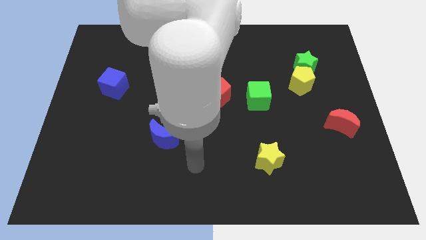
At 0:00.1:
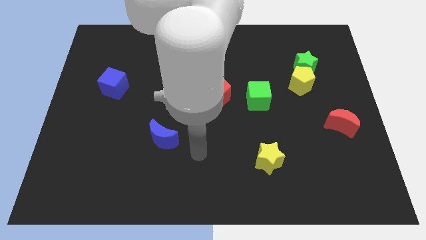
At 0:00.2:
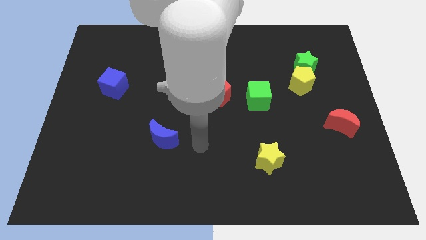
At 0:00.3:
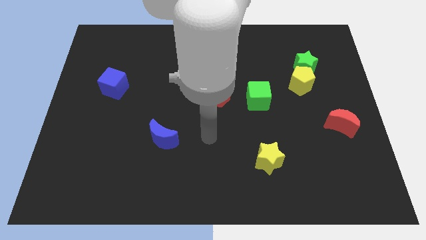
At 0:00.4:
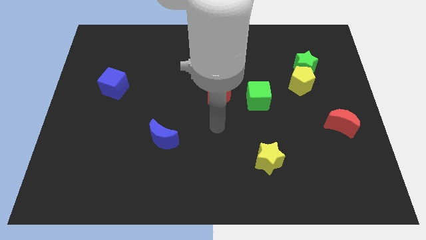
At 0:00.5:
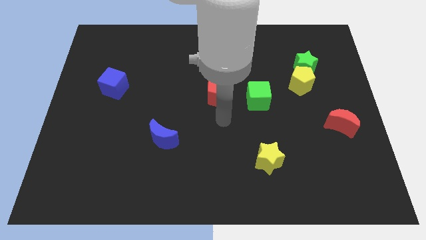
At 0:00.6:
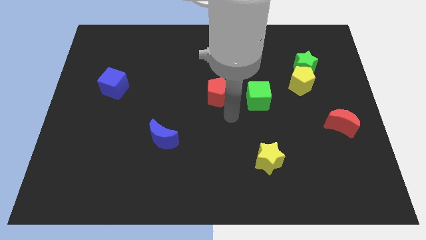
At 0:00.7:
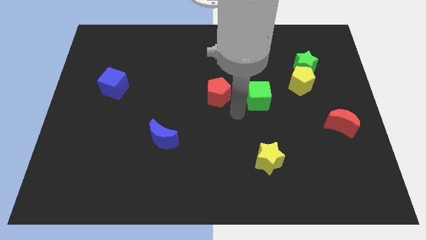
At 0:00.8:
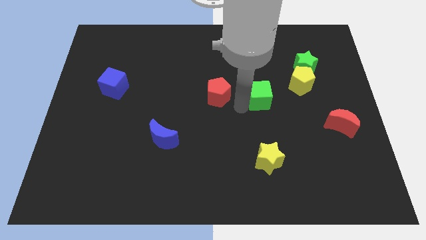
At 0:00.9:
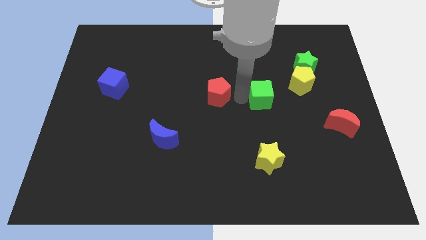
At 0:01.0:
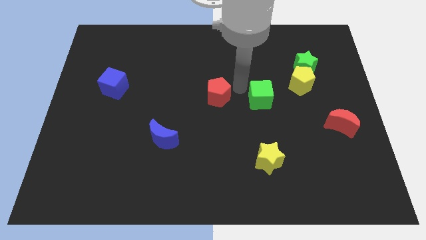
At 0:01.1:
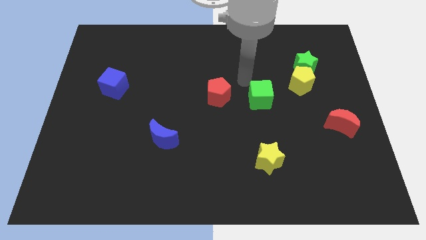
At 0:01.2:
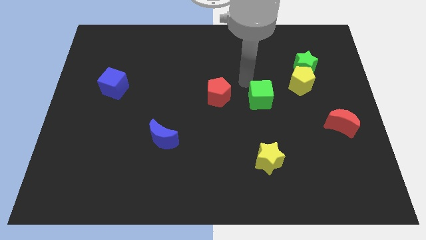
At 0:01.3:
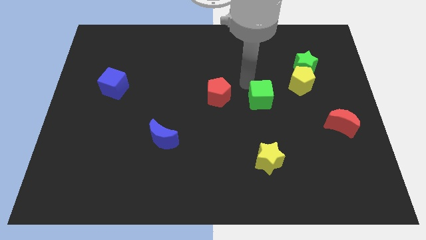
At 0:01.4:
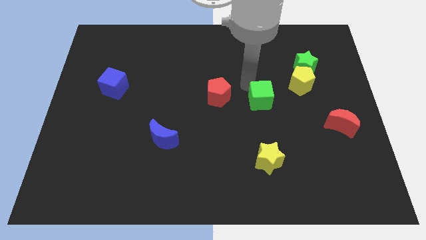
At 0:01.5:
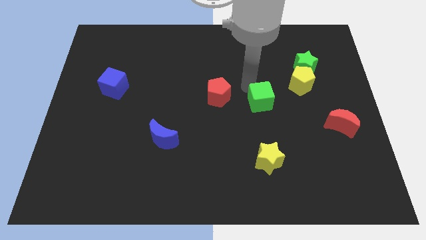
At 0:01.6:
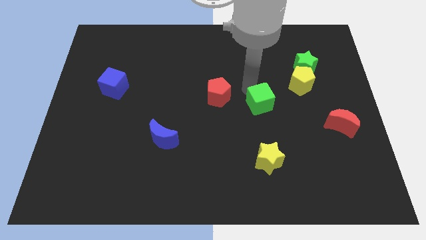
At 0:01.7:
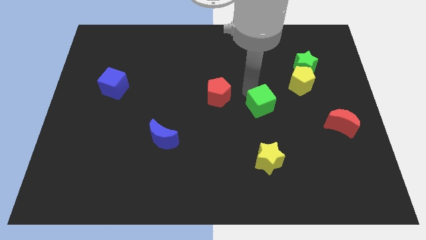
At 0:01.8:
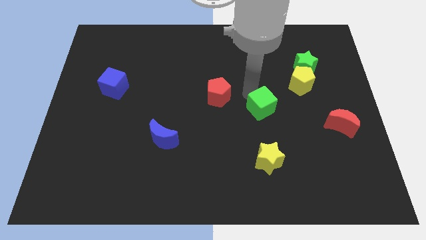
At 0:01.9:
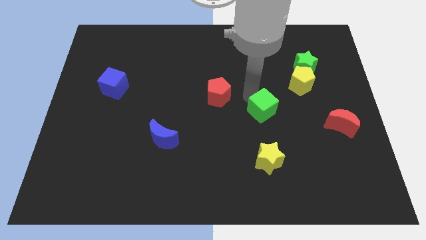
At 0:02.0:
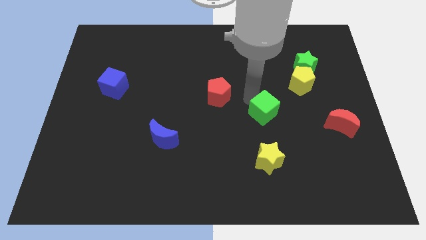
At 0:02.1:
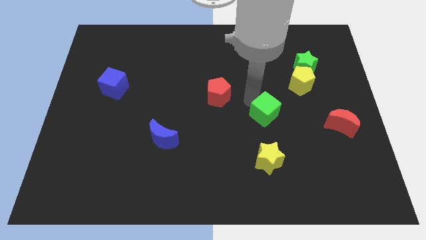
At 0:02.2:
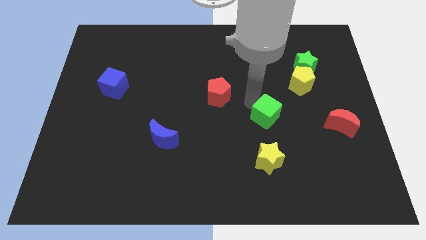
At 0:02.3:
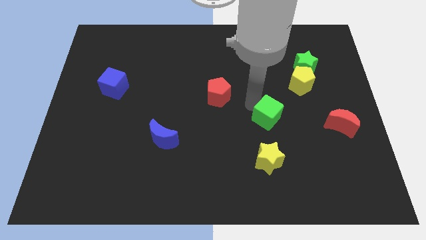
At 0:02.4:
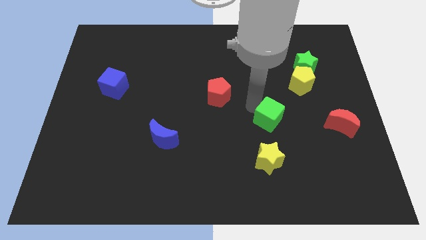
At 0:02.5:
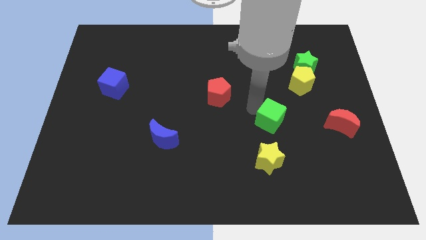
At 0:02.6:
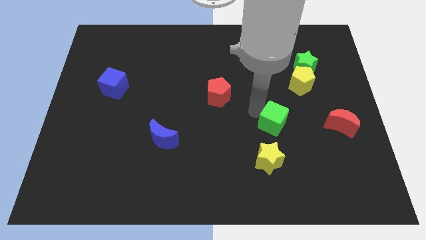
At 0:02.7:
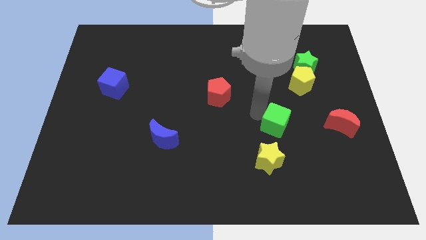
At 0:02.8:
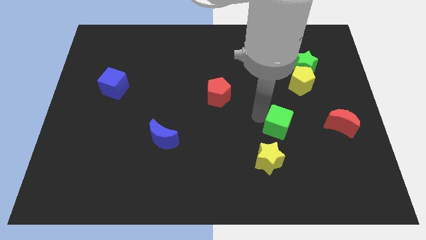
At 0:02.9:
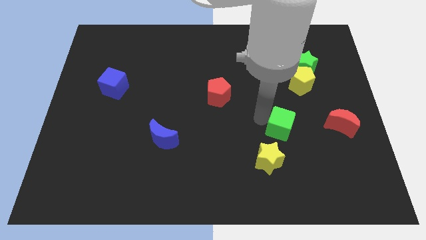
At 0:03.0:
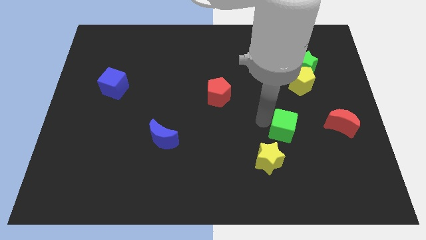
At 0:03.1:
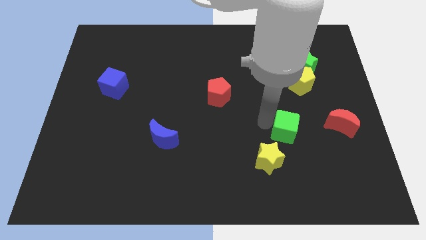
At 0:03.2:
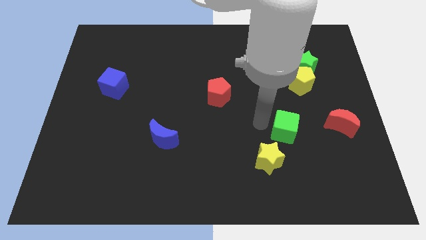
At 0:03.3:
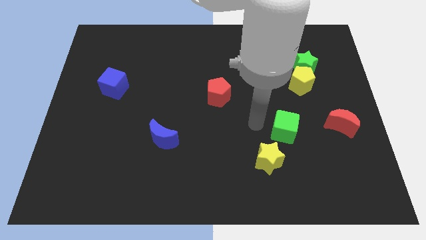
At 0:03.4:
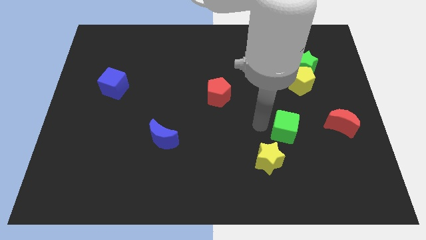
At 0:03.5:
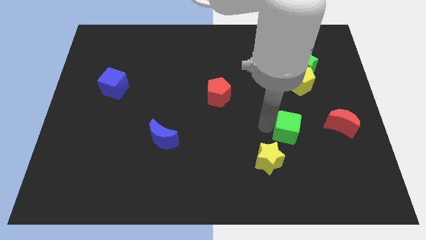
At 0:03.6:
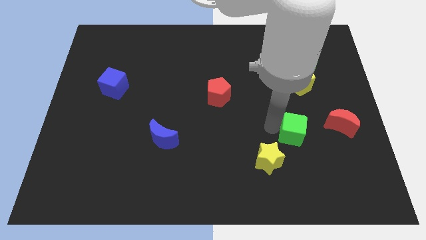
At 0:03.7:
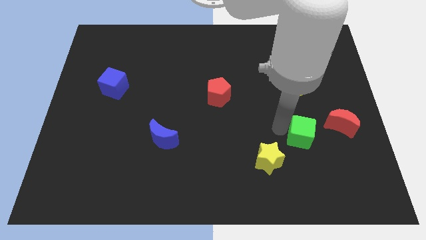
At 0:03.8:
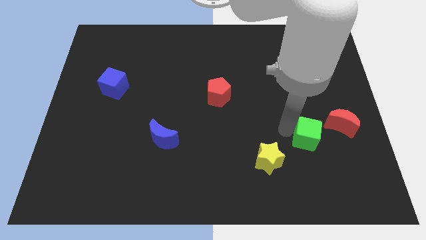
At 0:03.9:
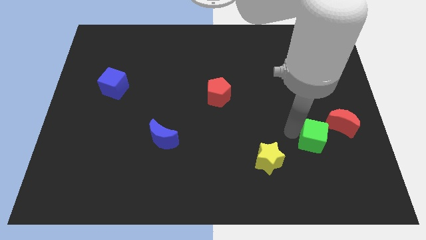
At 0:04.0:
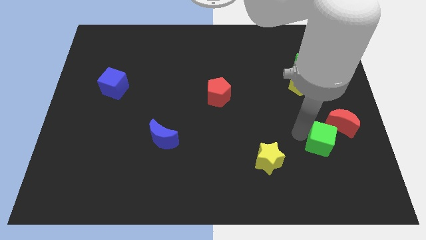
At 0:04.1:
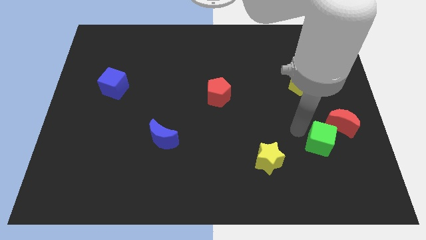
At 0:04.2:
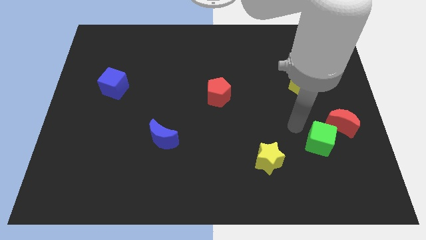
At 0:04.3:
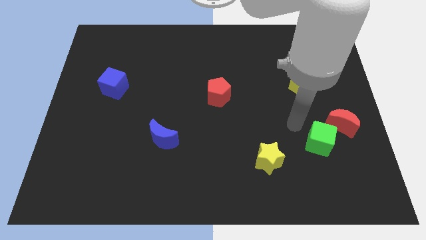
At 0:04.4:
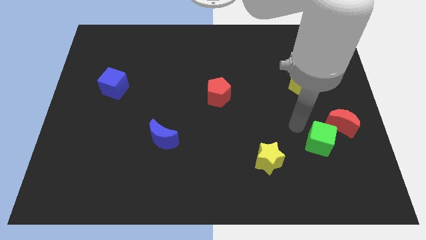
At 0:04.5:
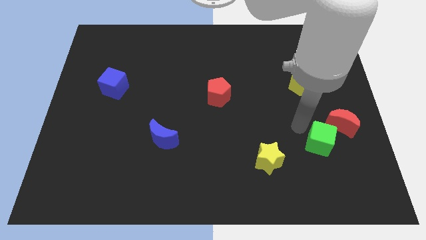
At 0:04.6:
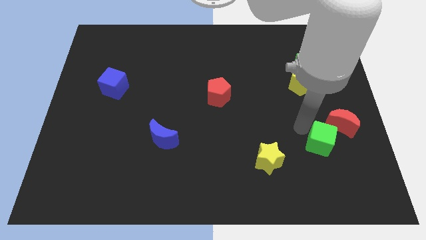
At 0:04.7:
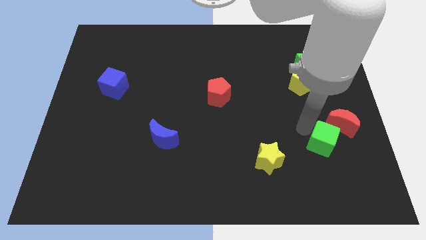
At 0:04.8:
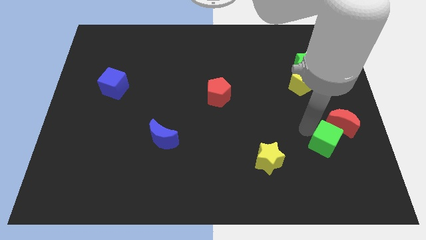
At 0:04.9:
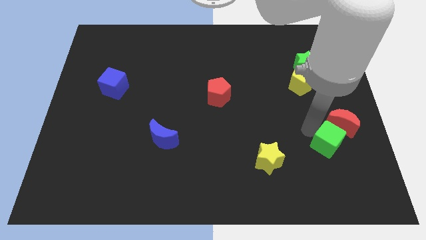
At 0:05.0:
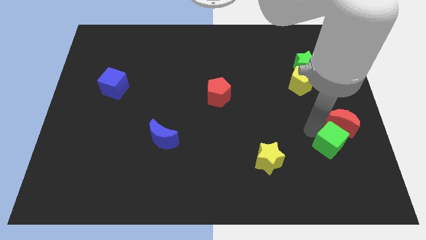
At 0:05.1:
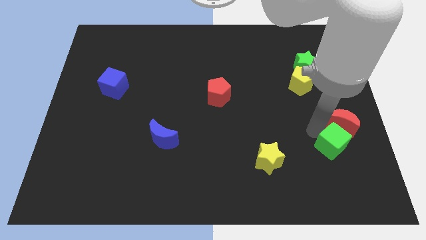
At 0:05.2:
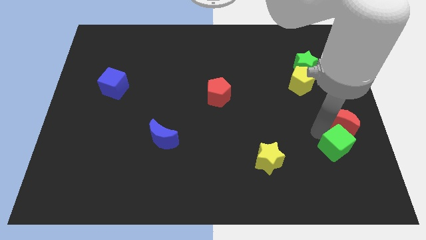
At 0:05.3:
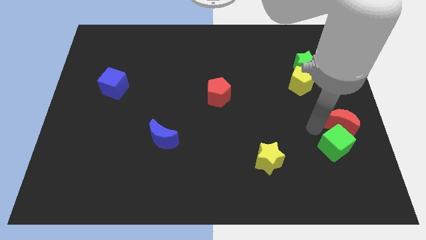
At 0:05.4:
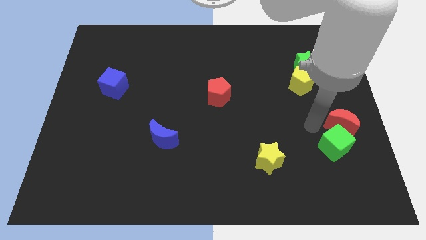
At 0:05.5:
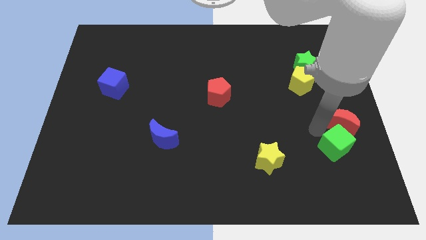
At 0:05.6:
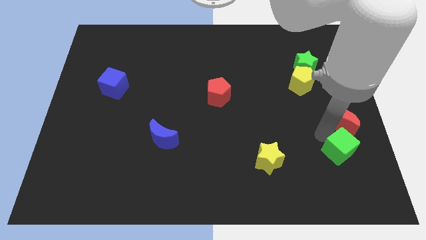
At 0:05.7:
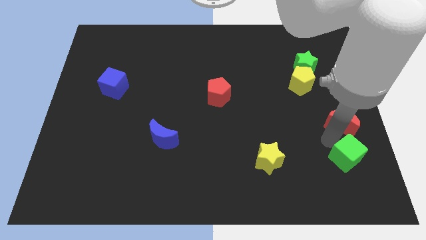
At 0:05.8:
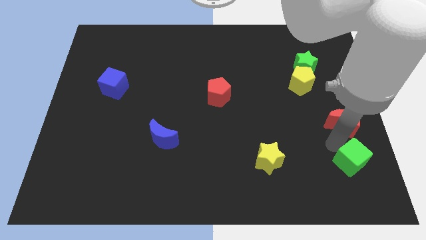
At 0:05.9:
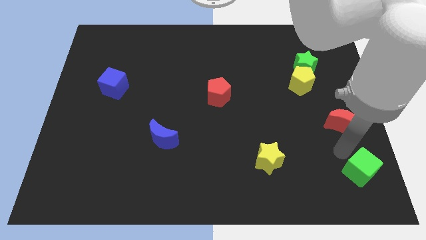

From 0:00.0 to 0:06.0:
move the green cube to the bottom right corner
